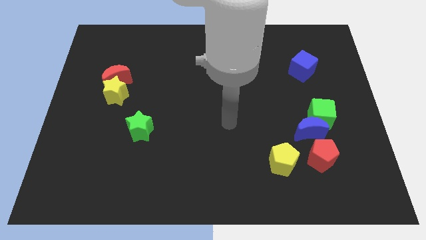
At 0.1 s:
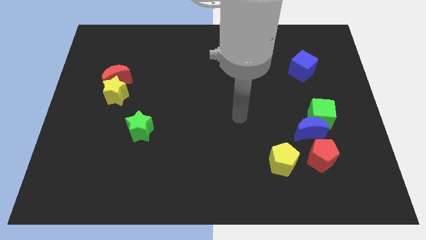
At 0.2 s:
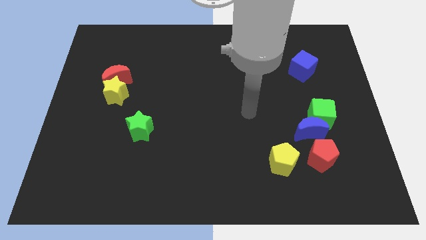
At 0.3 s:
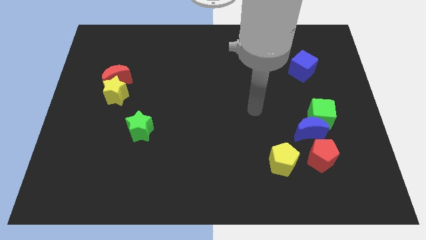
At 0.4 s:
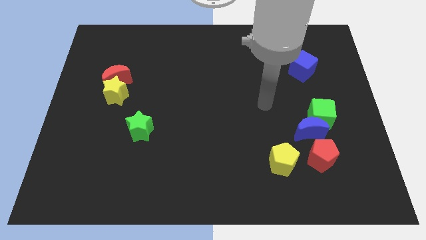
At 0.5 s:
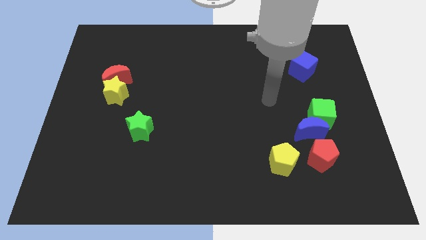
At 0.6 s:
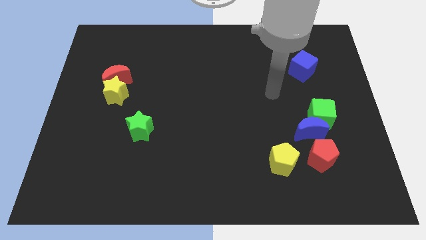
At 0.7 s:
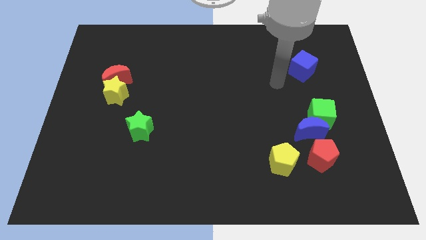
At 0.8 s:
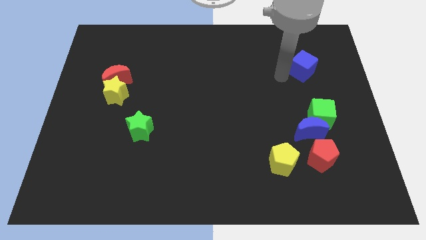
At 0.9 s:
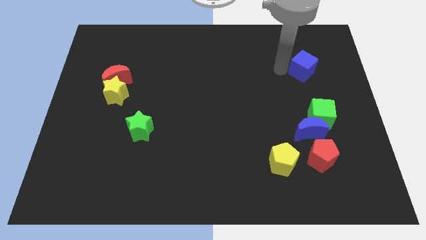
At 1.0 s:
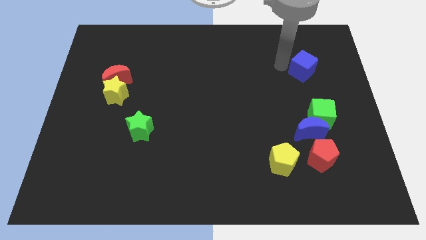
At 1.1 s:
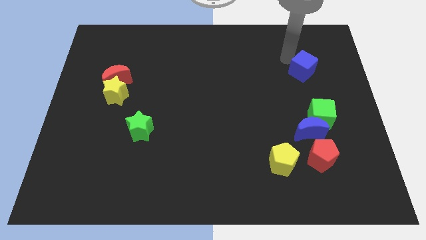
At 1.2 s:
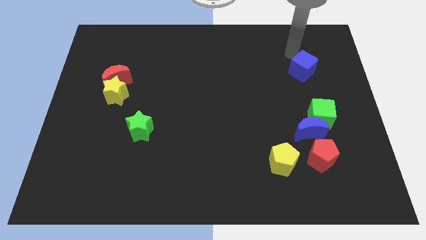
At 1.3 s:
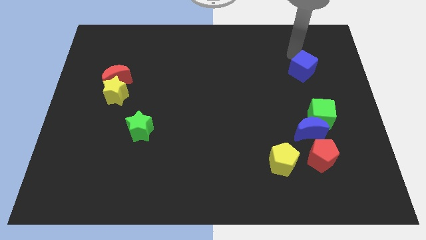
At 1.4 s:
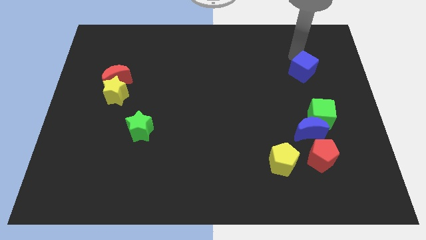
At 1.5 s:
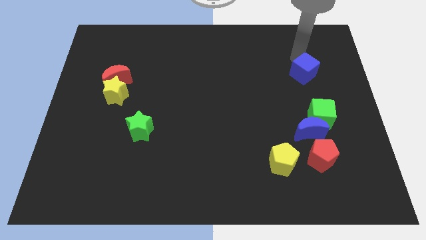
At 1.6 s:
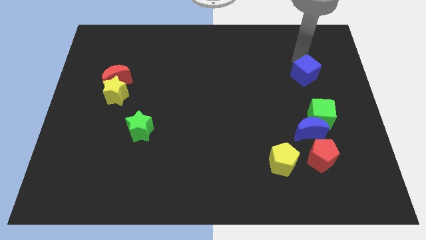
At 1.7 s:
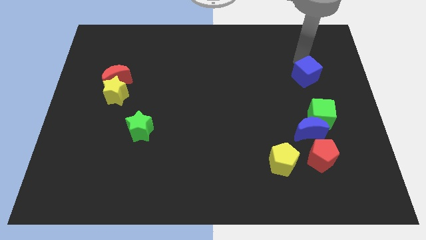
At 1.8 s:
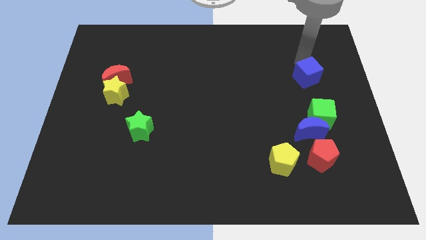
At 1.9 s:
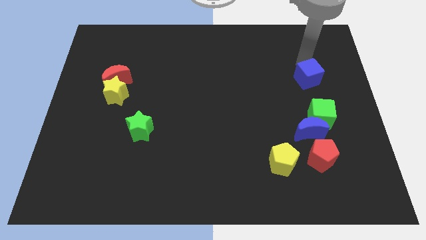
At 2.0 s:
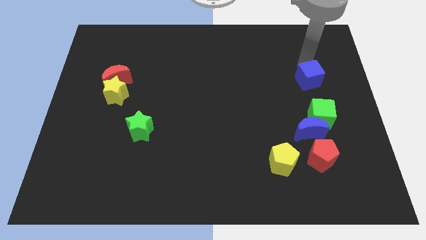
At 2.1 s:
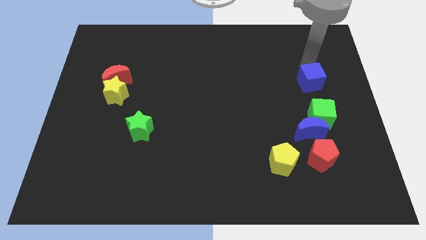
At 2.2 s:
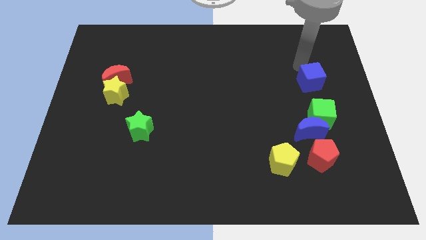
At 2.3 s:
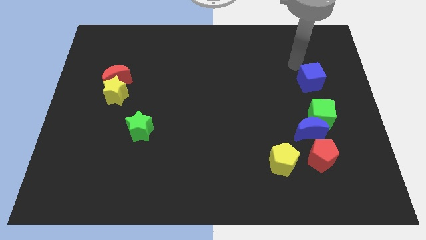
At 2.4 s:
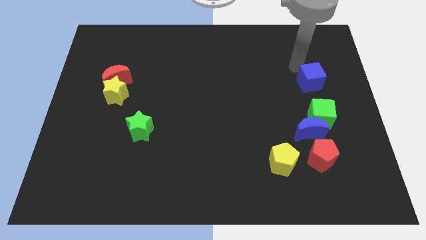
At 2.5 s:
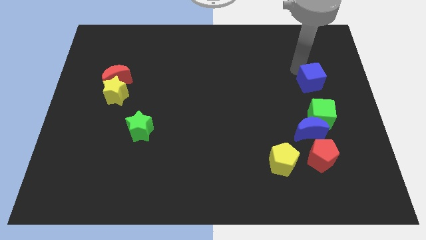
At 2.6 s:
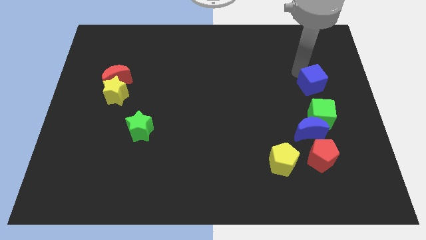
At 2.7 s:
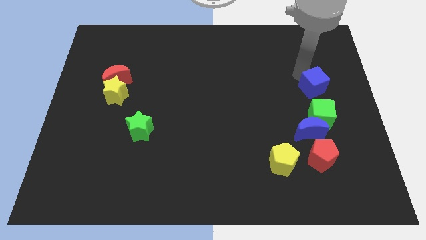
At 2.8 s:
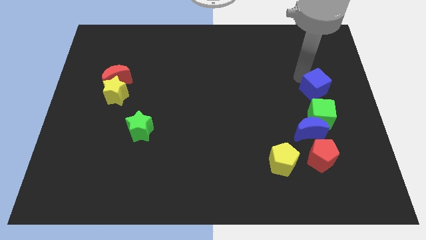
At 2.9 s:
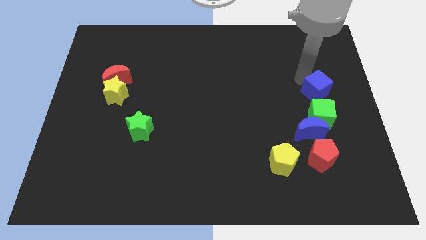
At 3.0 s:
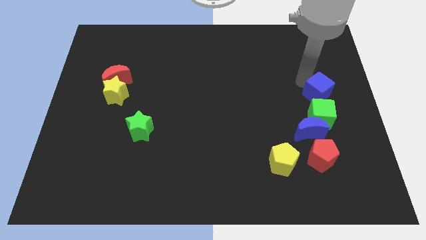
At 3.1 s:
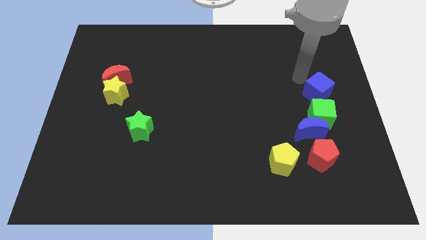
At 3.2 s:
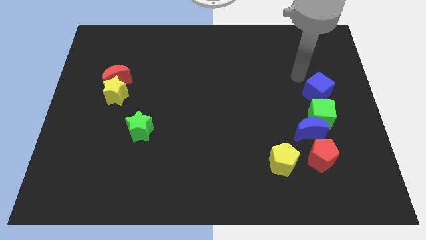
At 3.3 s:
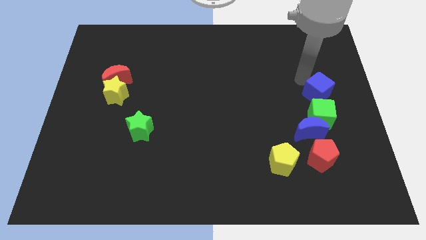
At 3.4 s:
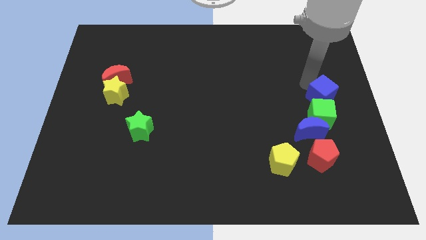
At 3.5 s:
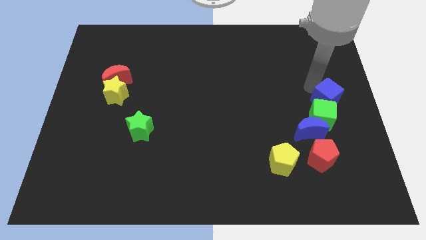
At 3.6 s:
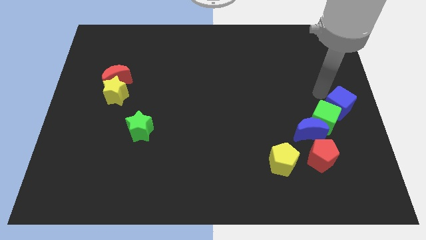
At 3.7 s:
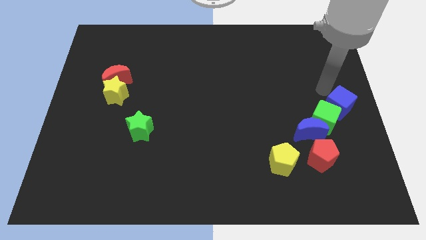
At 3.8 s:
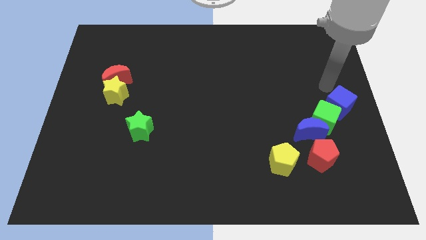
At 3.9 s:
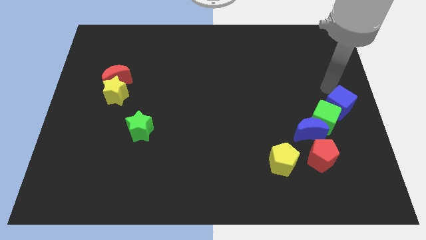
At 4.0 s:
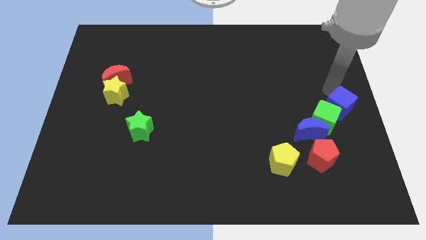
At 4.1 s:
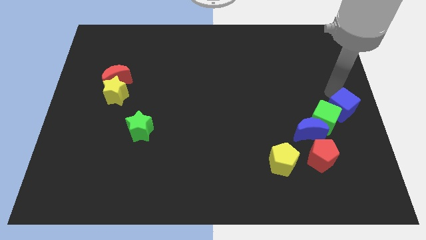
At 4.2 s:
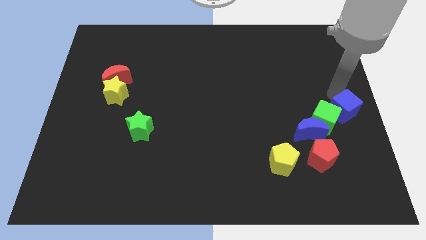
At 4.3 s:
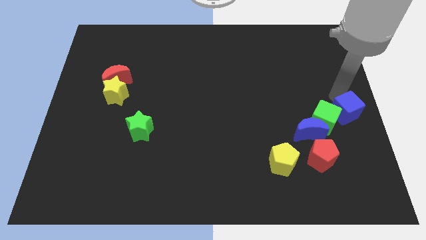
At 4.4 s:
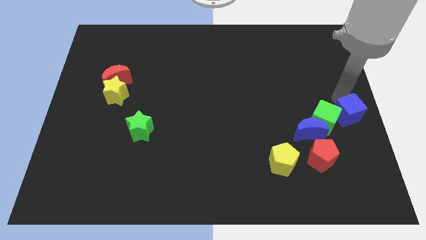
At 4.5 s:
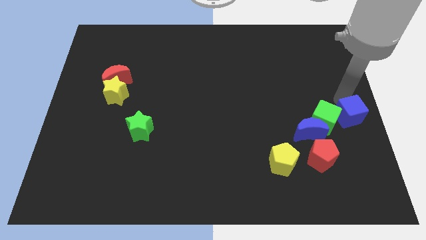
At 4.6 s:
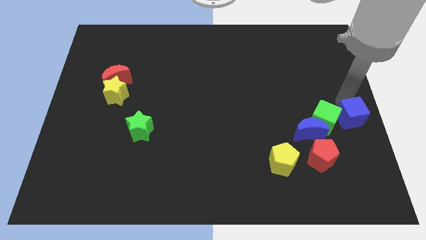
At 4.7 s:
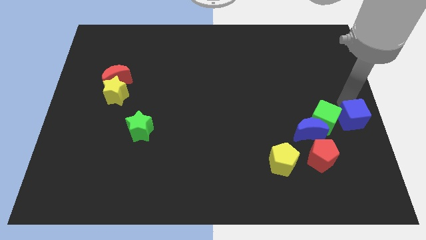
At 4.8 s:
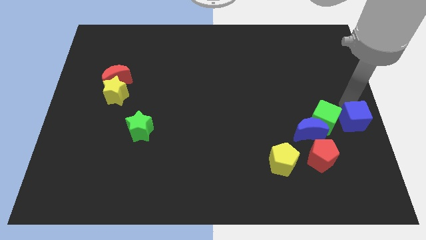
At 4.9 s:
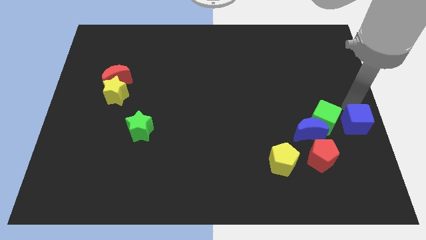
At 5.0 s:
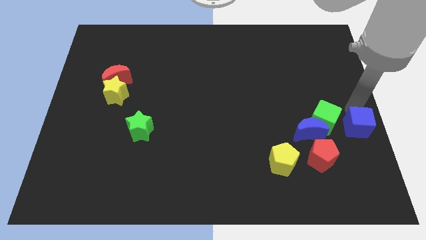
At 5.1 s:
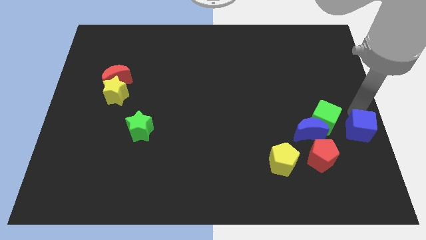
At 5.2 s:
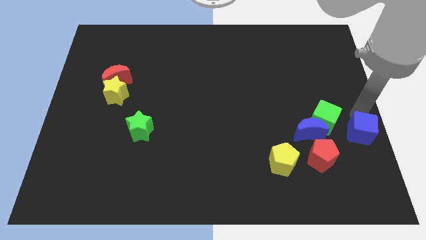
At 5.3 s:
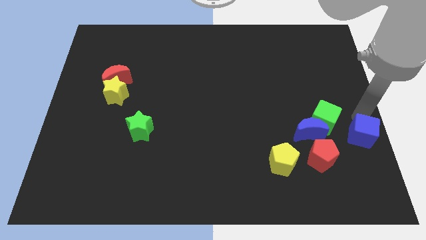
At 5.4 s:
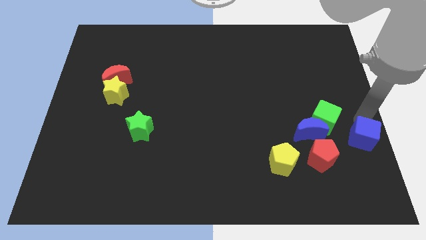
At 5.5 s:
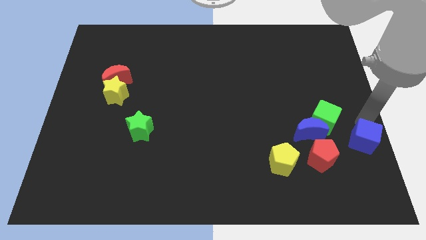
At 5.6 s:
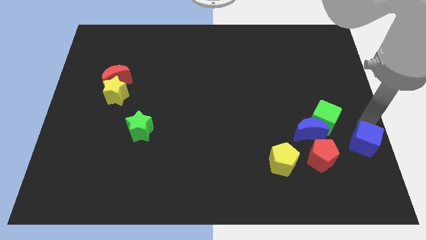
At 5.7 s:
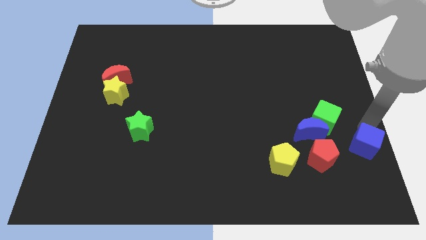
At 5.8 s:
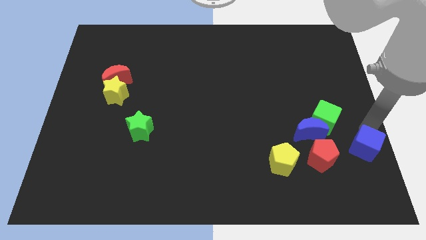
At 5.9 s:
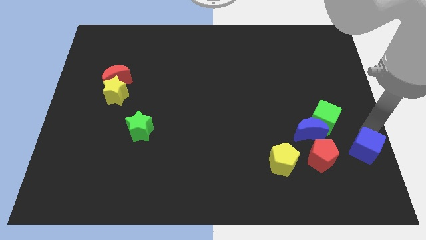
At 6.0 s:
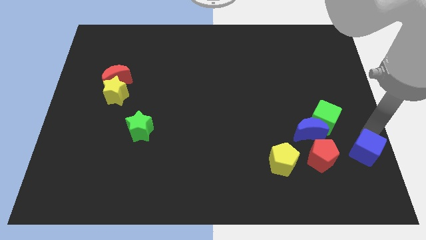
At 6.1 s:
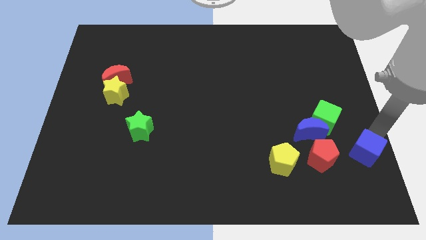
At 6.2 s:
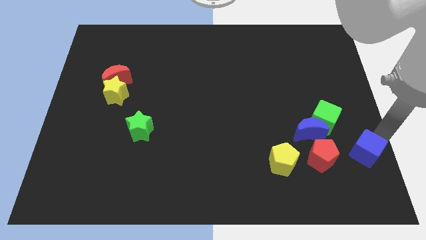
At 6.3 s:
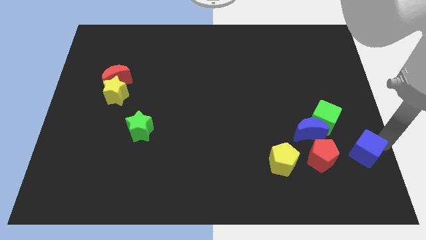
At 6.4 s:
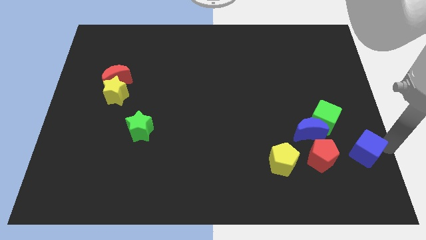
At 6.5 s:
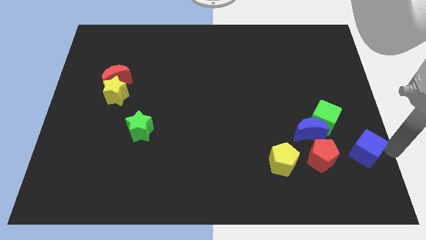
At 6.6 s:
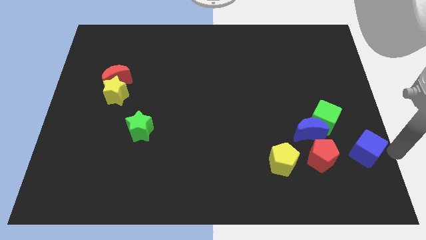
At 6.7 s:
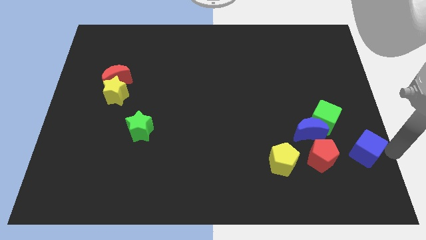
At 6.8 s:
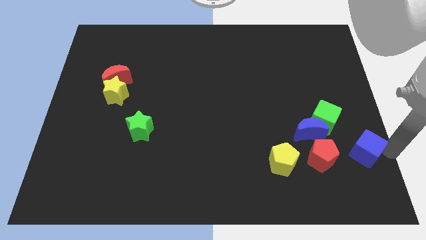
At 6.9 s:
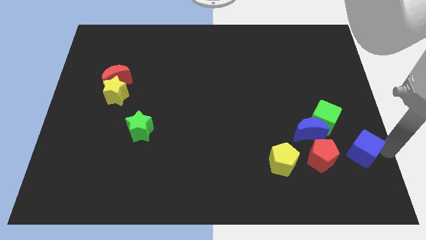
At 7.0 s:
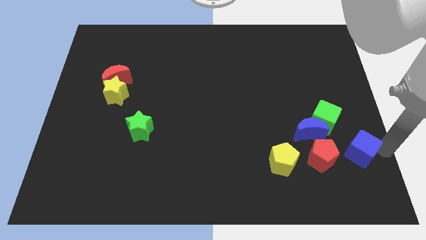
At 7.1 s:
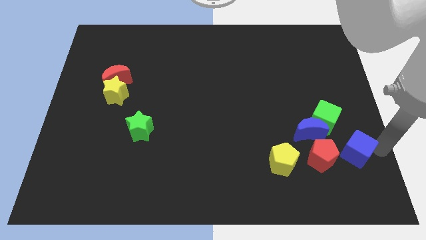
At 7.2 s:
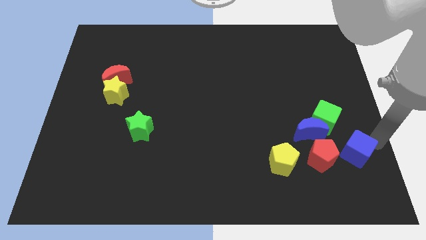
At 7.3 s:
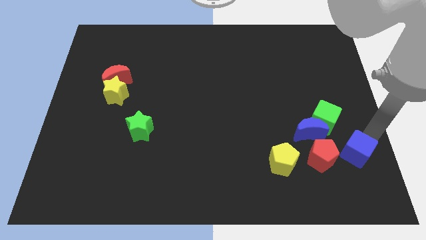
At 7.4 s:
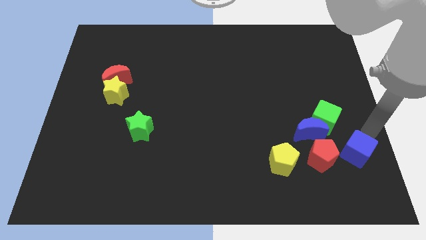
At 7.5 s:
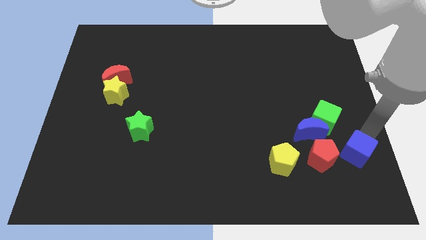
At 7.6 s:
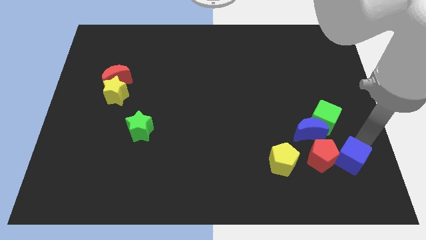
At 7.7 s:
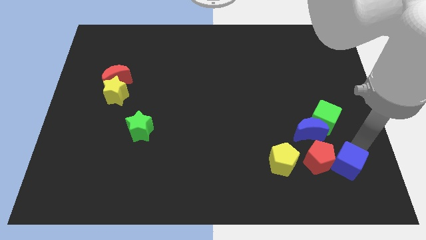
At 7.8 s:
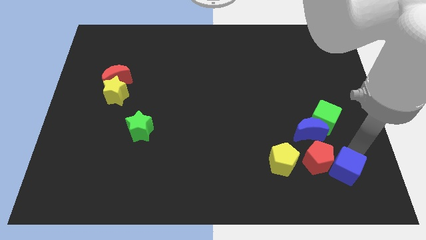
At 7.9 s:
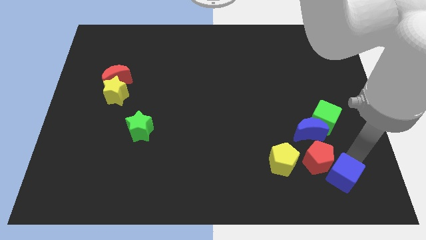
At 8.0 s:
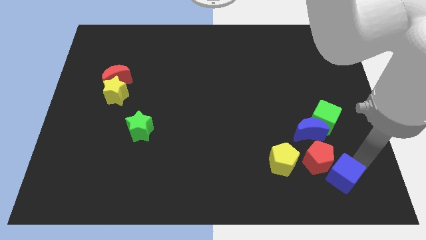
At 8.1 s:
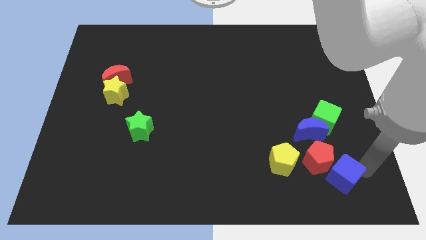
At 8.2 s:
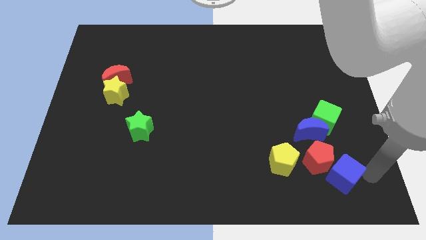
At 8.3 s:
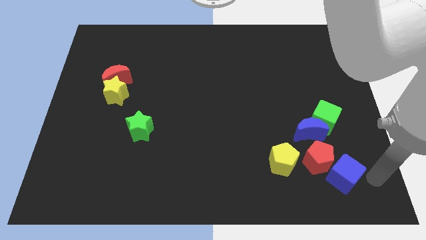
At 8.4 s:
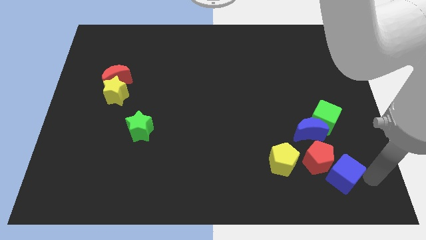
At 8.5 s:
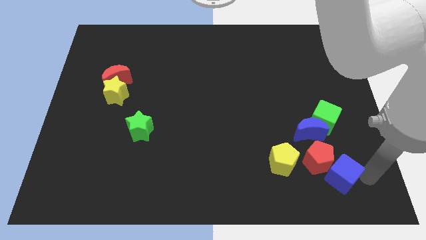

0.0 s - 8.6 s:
push the blue cube to the bottom of the blue moon
